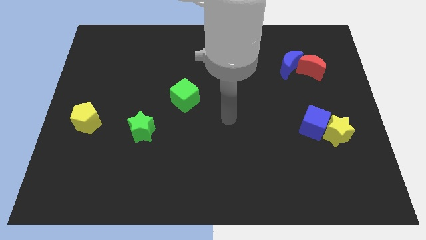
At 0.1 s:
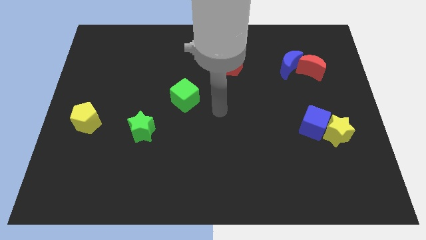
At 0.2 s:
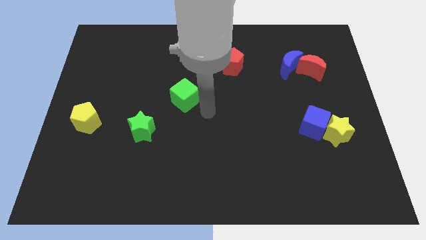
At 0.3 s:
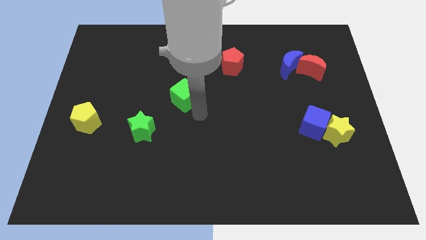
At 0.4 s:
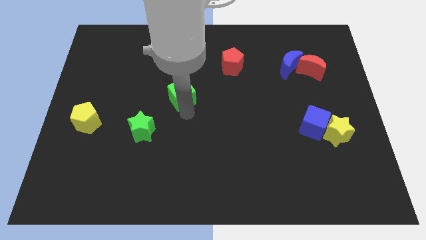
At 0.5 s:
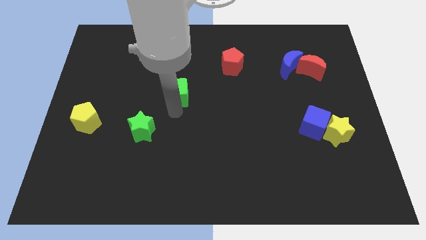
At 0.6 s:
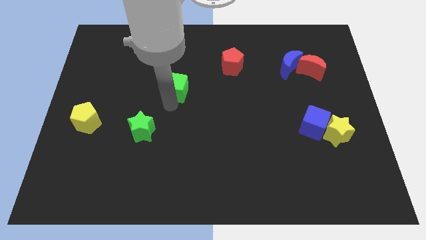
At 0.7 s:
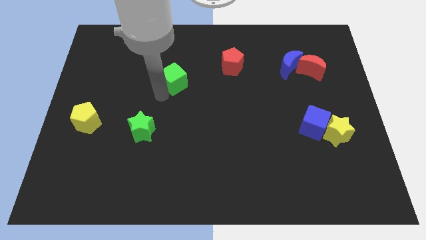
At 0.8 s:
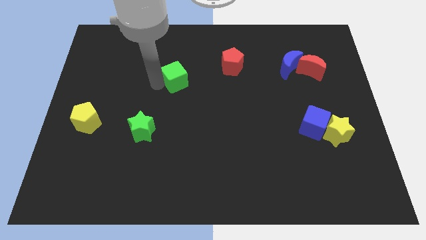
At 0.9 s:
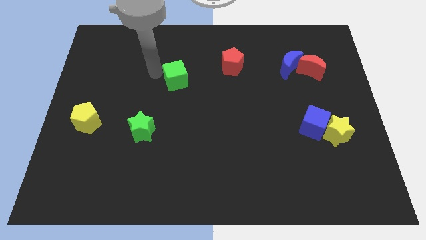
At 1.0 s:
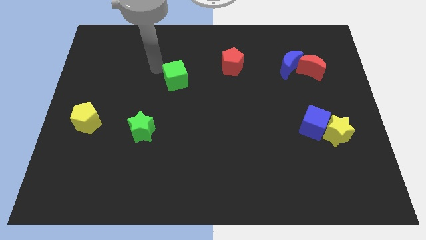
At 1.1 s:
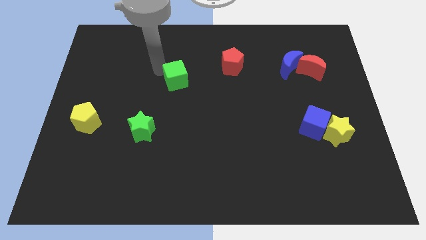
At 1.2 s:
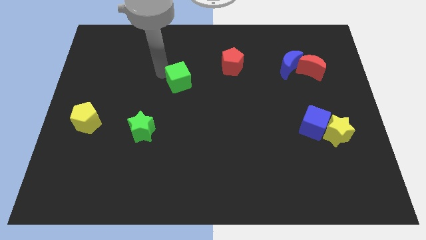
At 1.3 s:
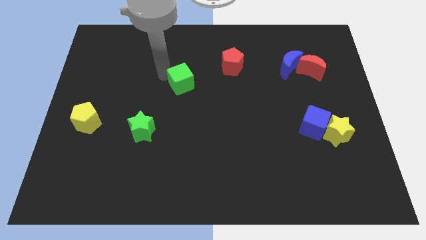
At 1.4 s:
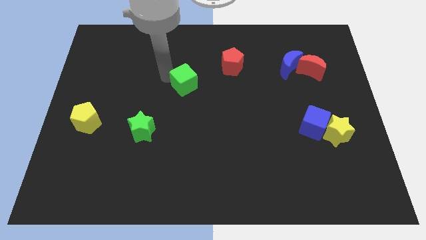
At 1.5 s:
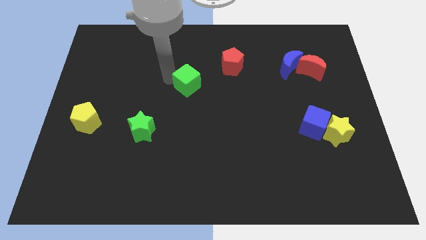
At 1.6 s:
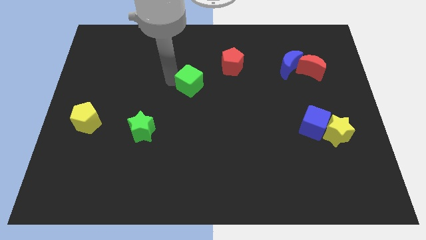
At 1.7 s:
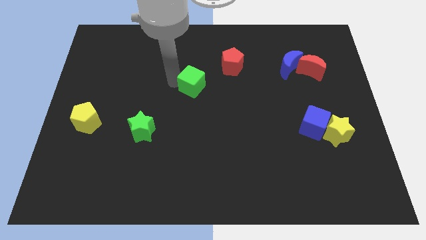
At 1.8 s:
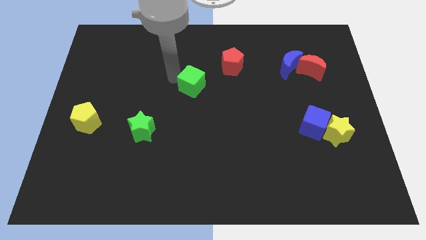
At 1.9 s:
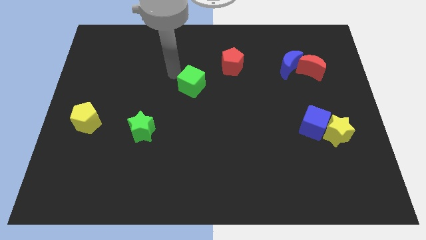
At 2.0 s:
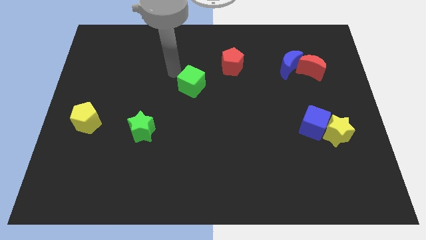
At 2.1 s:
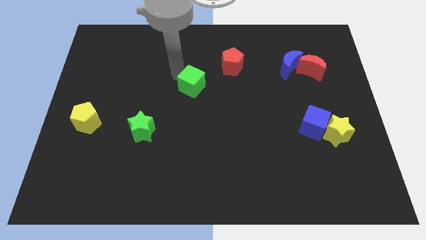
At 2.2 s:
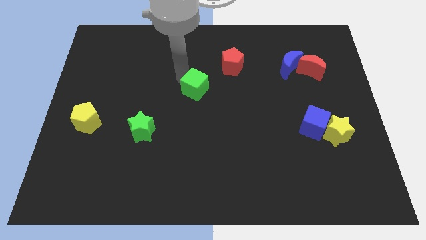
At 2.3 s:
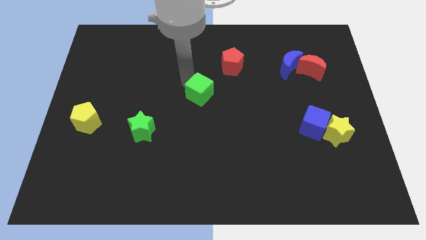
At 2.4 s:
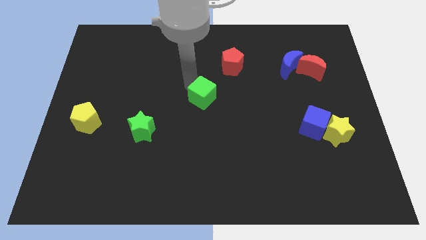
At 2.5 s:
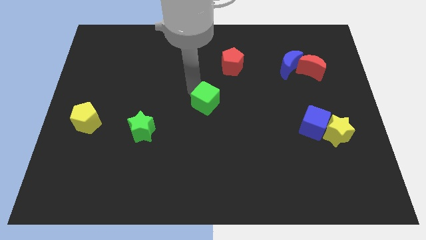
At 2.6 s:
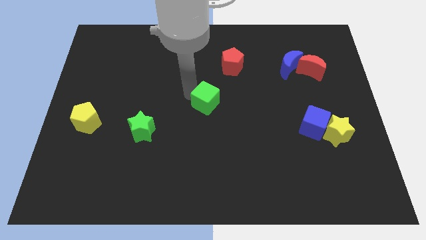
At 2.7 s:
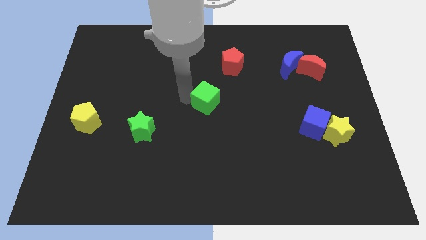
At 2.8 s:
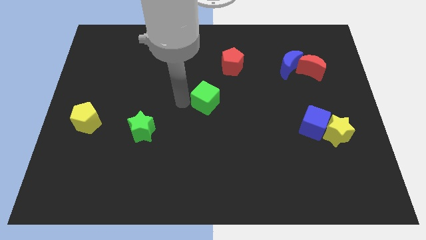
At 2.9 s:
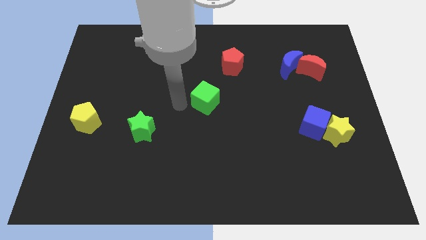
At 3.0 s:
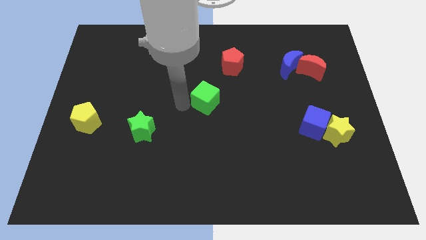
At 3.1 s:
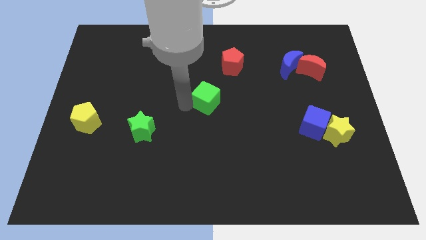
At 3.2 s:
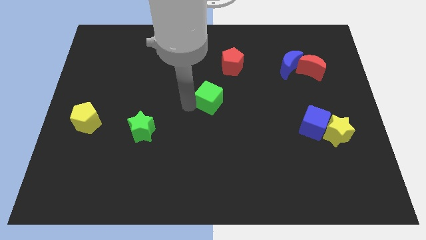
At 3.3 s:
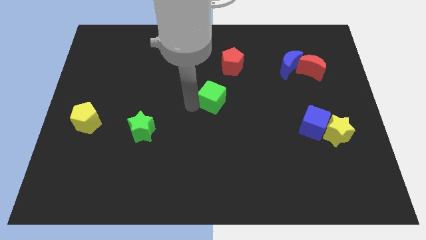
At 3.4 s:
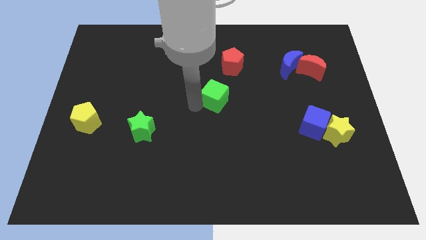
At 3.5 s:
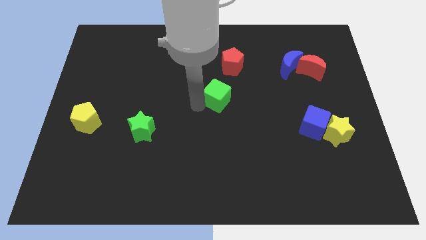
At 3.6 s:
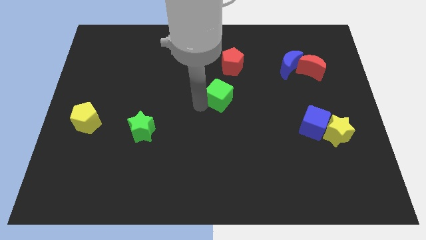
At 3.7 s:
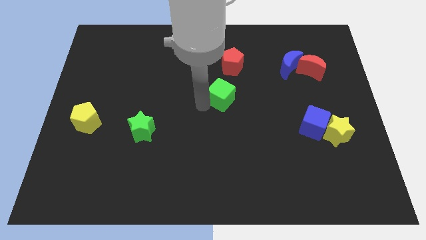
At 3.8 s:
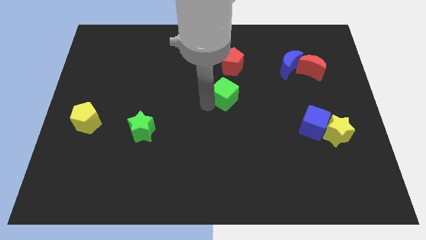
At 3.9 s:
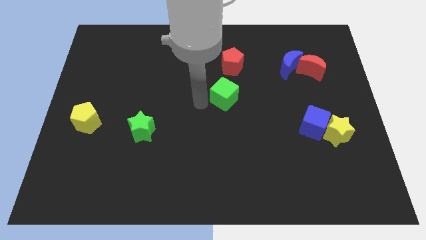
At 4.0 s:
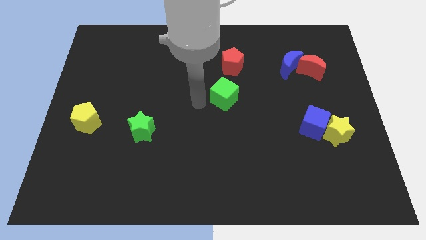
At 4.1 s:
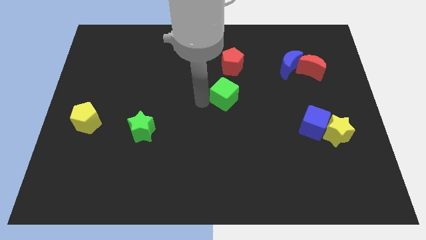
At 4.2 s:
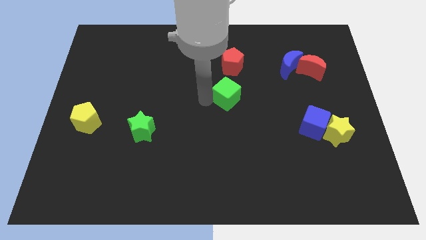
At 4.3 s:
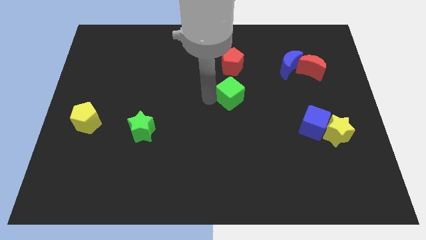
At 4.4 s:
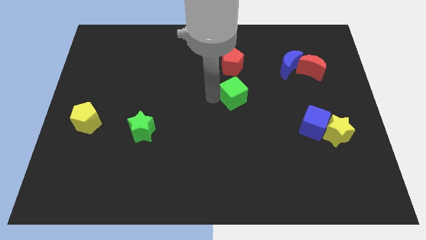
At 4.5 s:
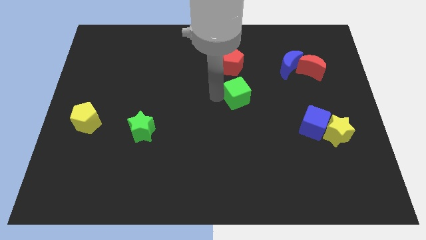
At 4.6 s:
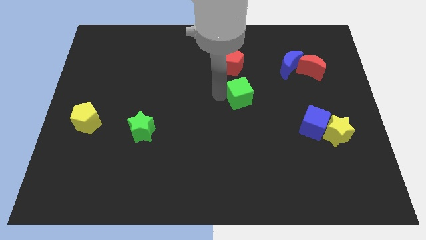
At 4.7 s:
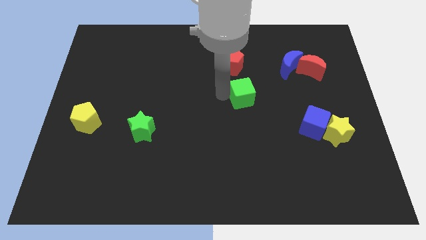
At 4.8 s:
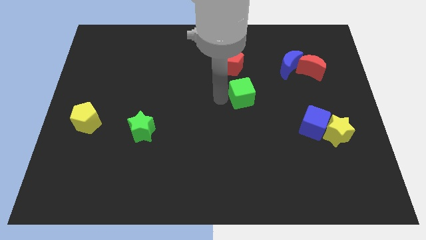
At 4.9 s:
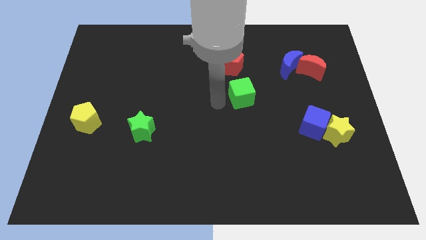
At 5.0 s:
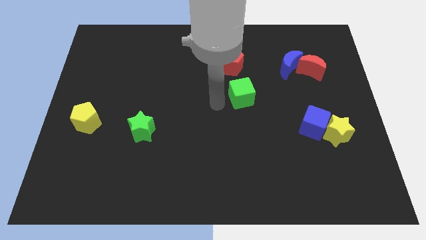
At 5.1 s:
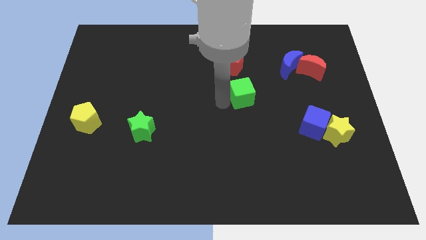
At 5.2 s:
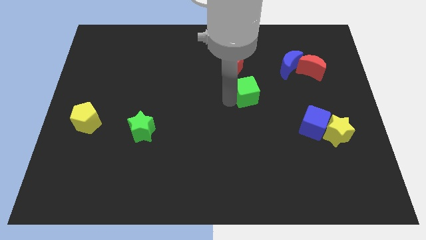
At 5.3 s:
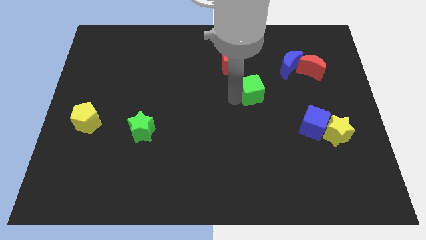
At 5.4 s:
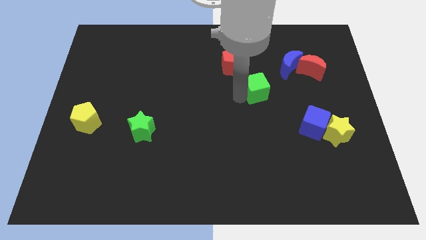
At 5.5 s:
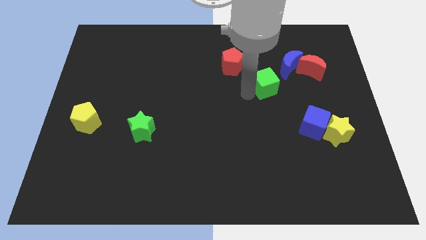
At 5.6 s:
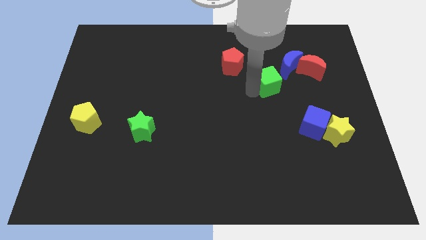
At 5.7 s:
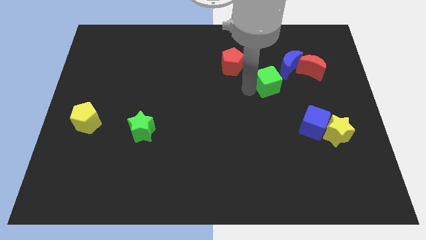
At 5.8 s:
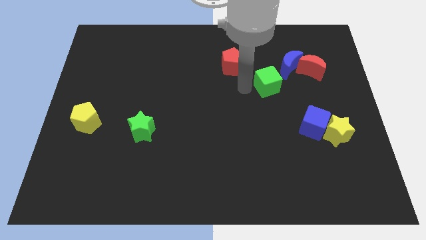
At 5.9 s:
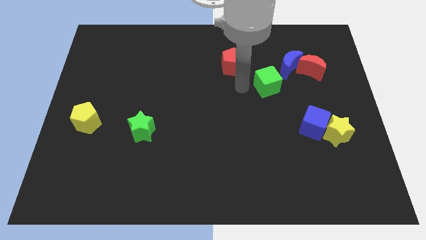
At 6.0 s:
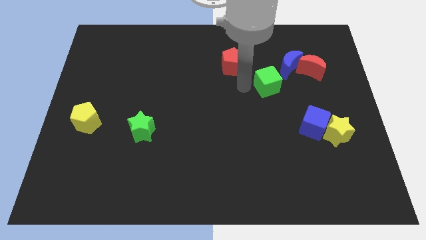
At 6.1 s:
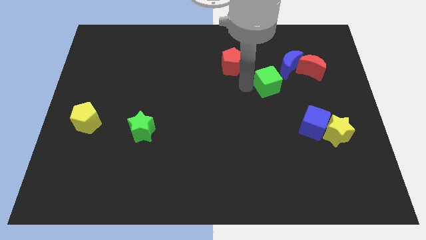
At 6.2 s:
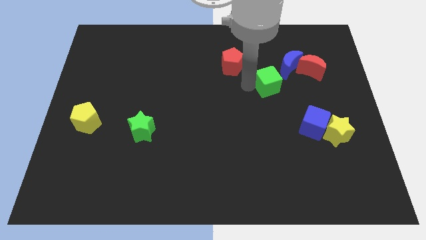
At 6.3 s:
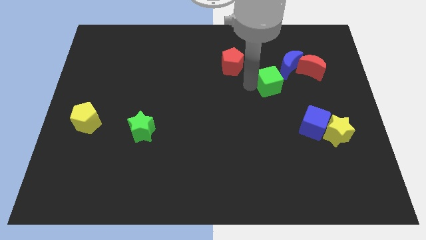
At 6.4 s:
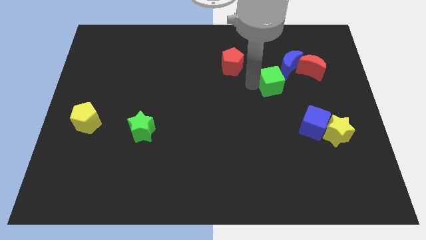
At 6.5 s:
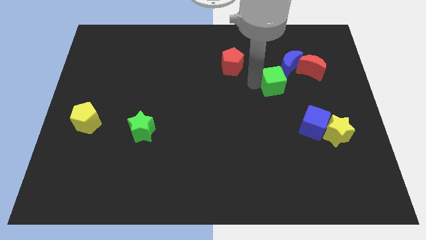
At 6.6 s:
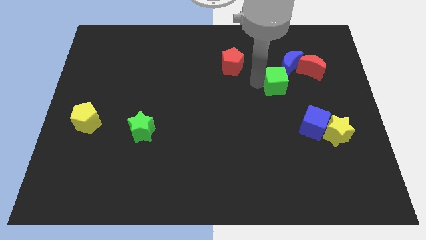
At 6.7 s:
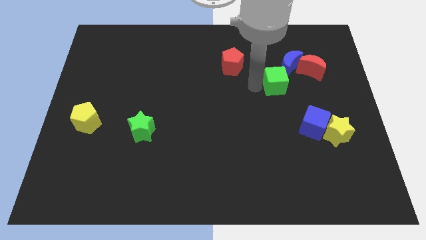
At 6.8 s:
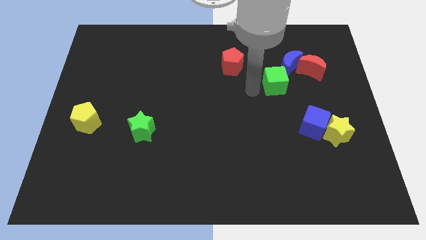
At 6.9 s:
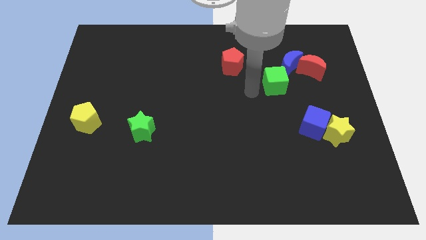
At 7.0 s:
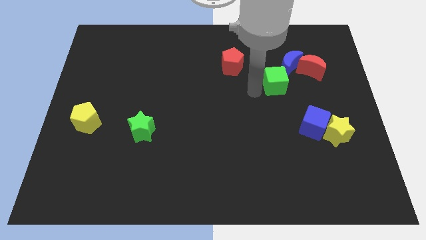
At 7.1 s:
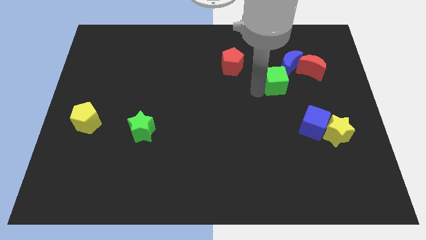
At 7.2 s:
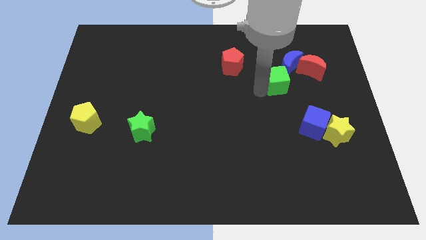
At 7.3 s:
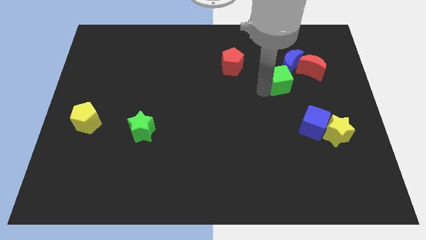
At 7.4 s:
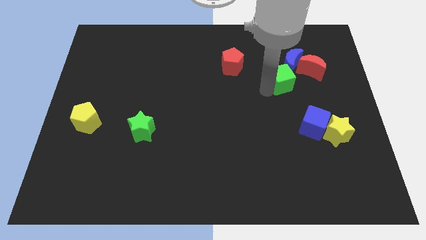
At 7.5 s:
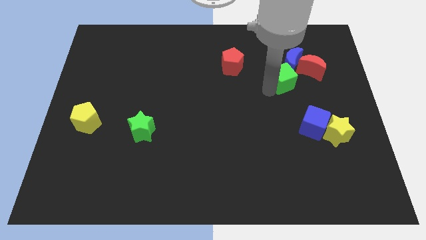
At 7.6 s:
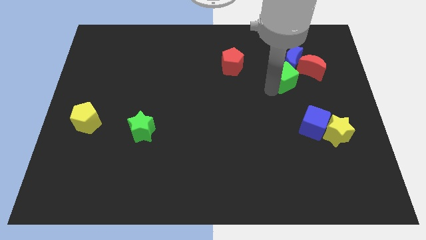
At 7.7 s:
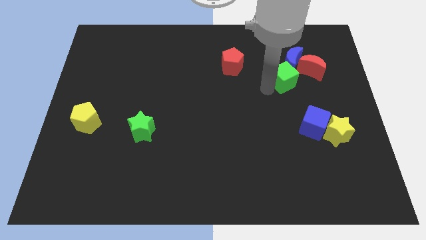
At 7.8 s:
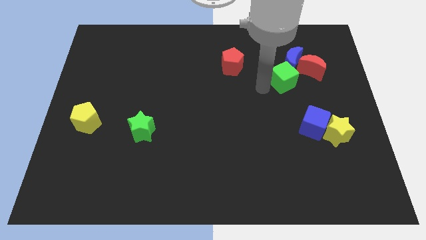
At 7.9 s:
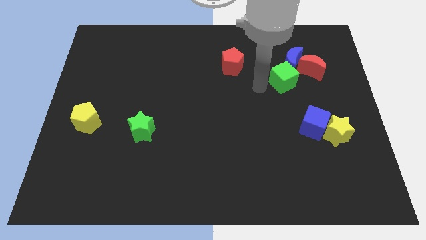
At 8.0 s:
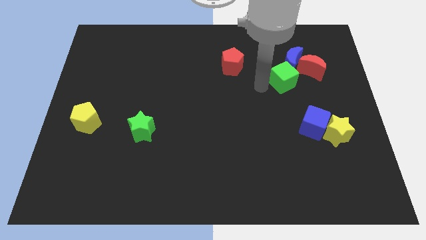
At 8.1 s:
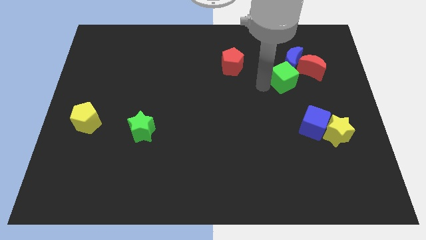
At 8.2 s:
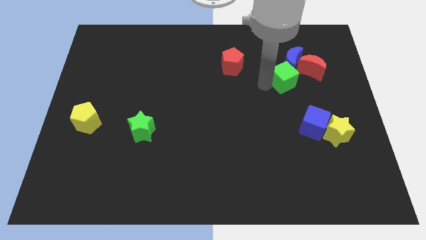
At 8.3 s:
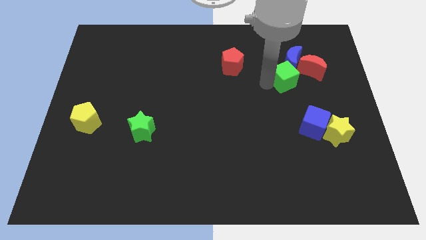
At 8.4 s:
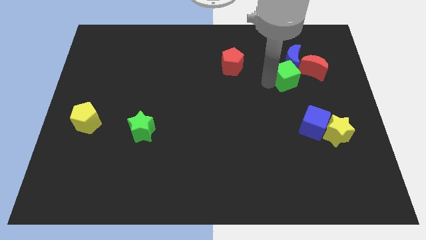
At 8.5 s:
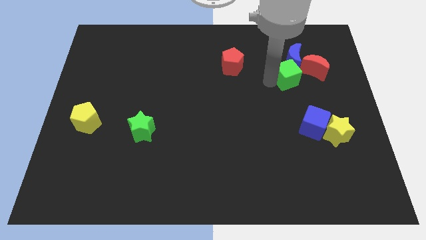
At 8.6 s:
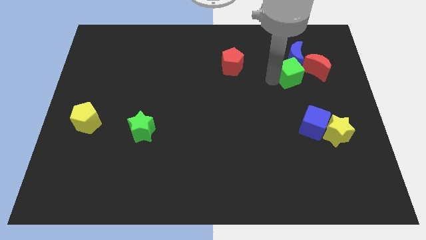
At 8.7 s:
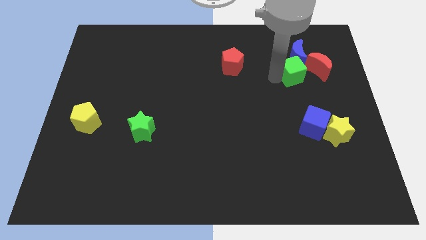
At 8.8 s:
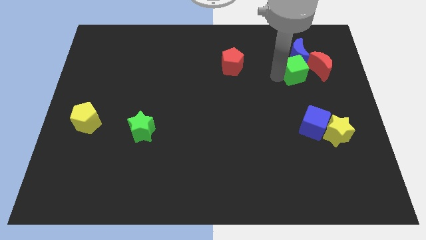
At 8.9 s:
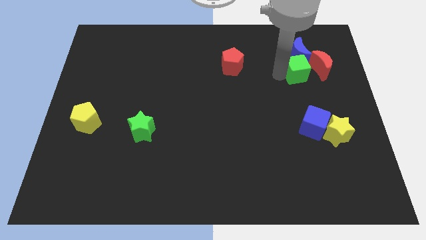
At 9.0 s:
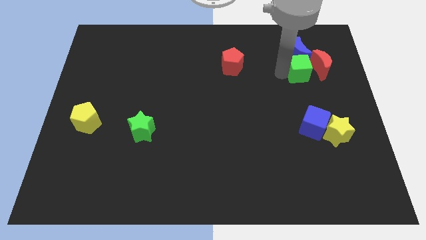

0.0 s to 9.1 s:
slide the green cube to the red moon
